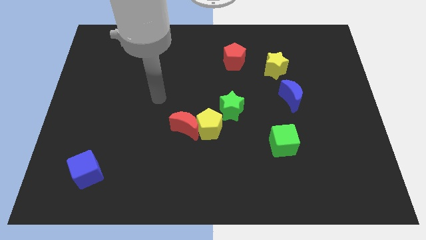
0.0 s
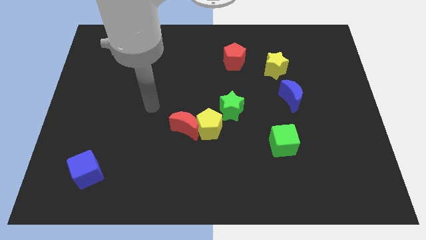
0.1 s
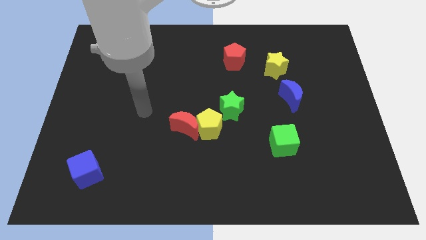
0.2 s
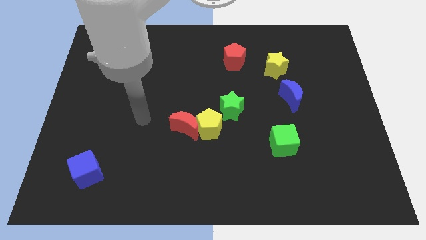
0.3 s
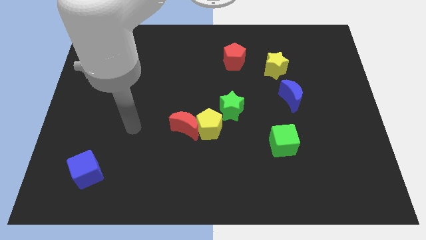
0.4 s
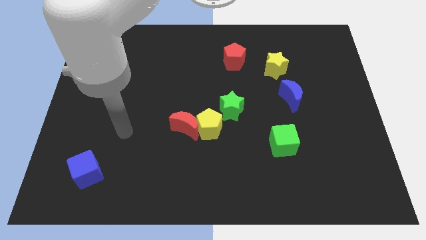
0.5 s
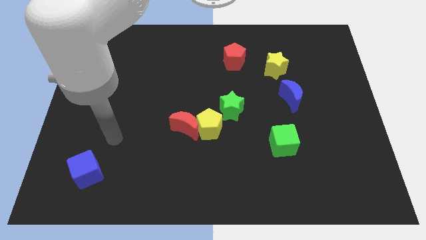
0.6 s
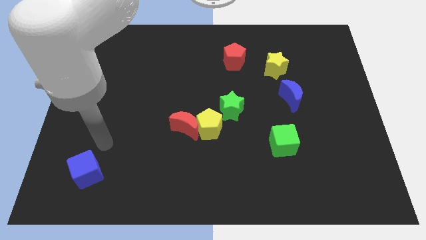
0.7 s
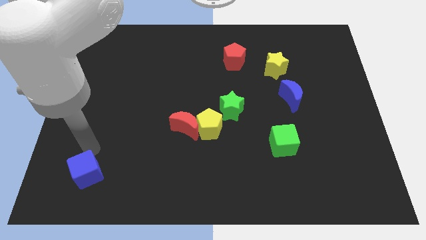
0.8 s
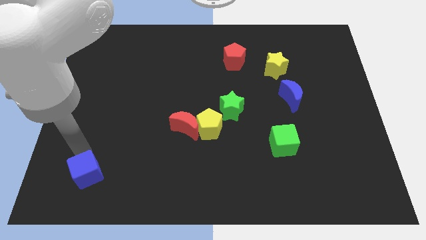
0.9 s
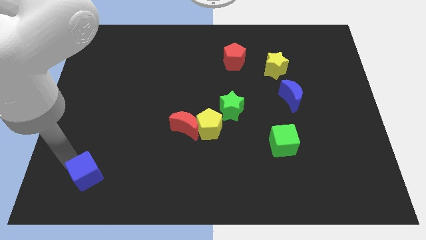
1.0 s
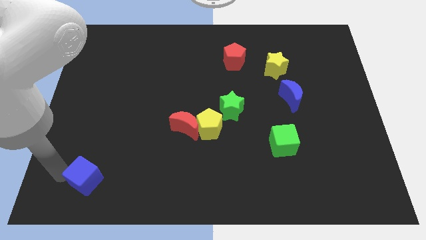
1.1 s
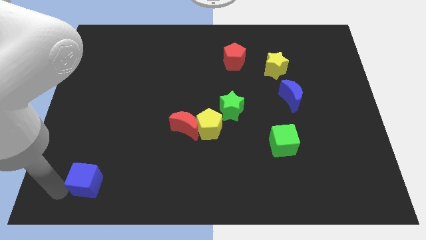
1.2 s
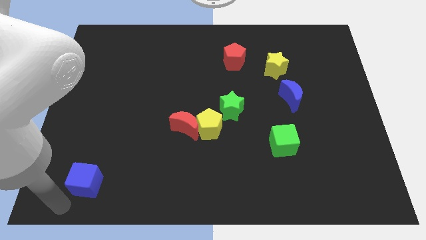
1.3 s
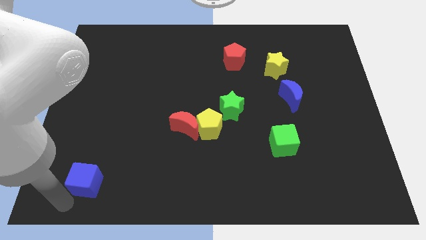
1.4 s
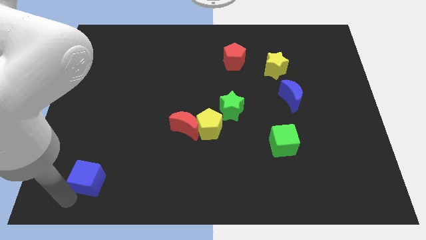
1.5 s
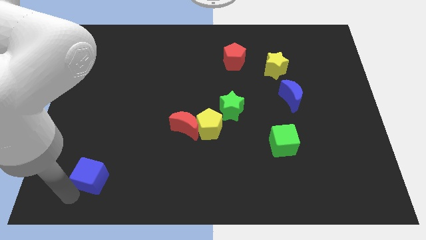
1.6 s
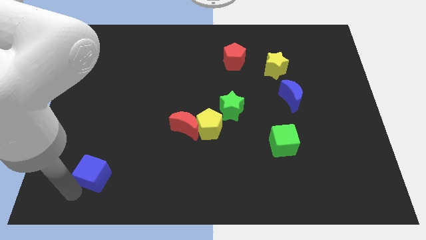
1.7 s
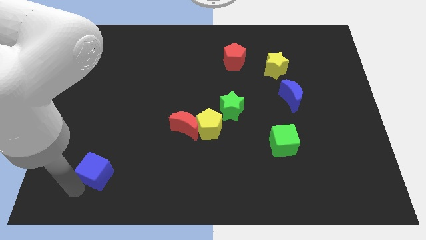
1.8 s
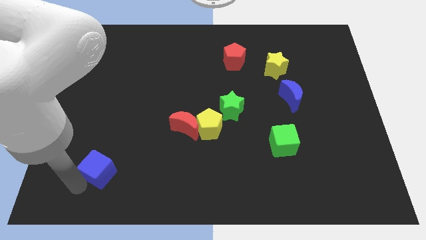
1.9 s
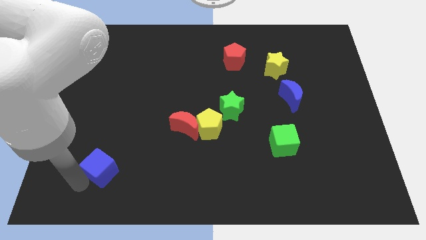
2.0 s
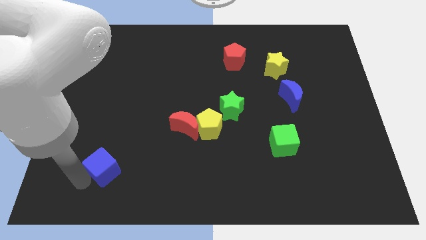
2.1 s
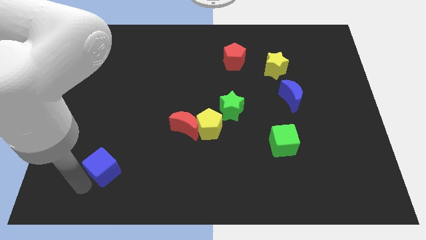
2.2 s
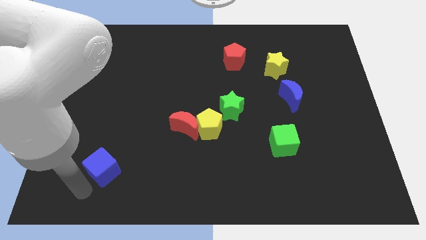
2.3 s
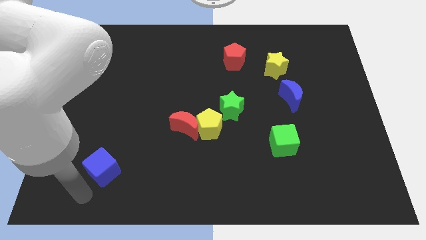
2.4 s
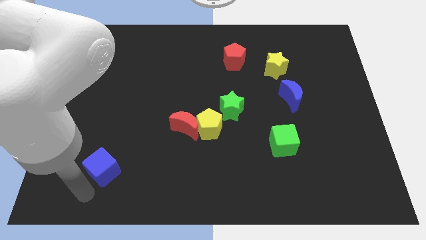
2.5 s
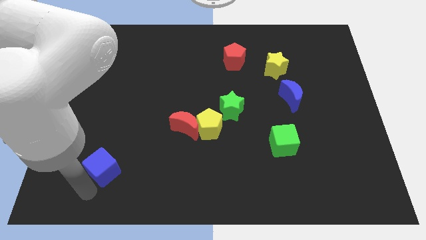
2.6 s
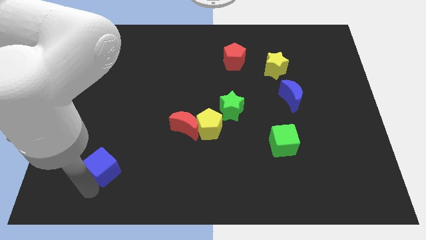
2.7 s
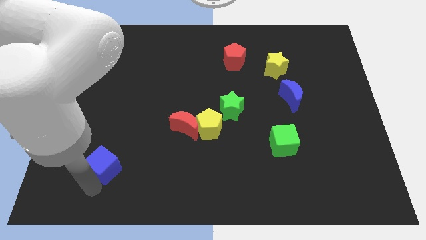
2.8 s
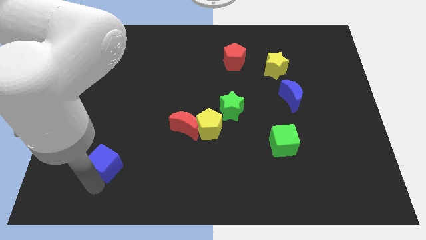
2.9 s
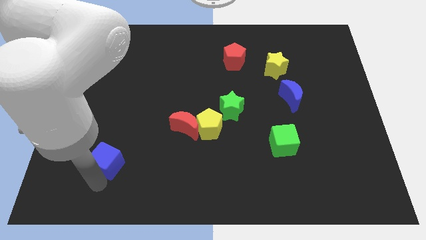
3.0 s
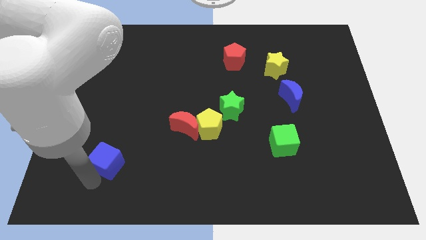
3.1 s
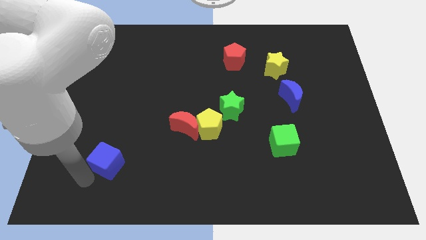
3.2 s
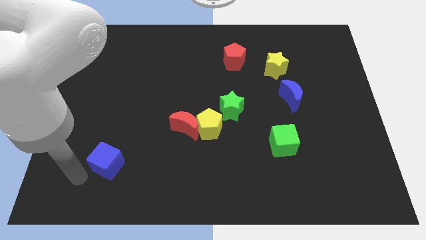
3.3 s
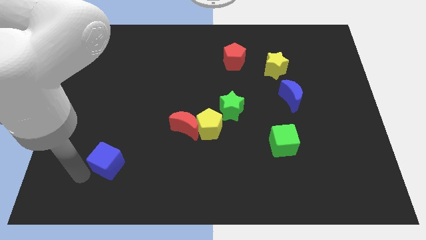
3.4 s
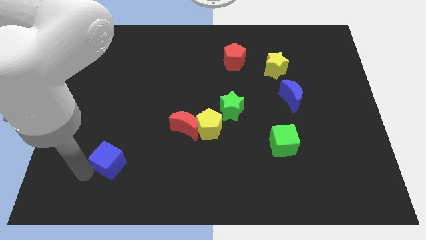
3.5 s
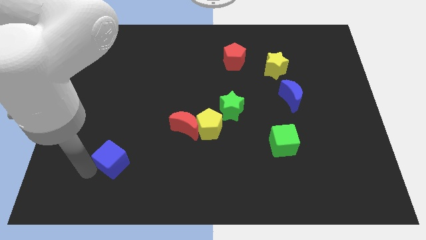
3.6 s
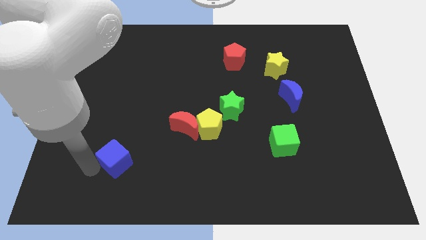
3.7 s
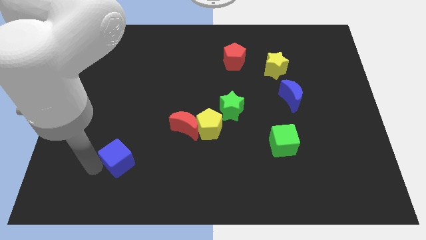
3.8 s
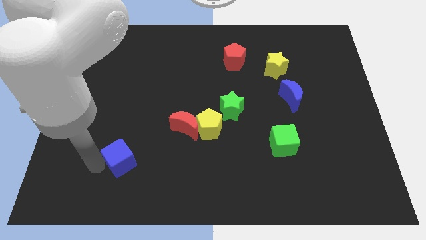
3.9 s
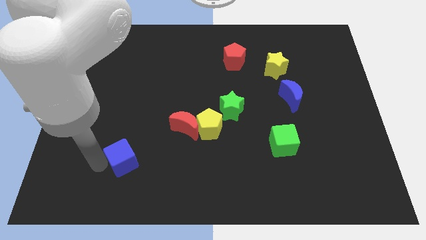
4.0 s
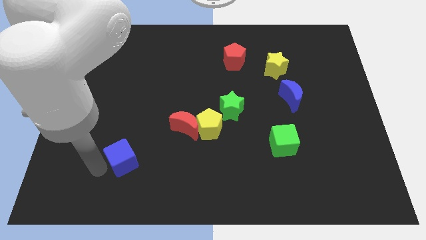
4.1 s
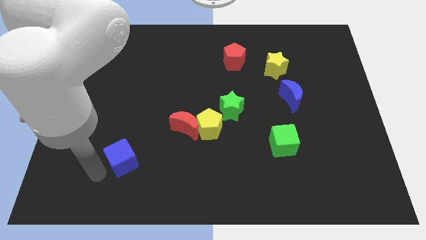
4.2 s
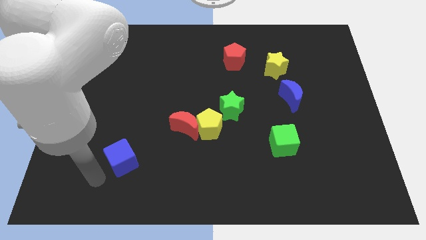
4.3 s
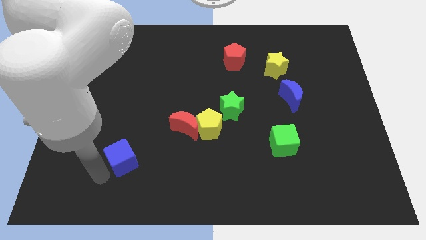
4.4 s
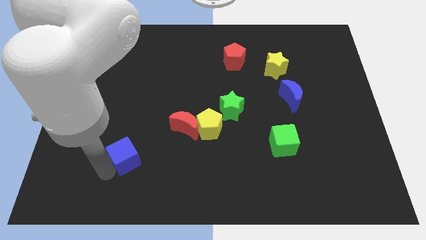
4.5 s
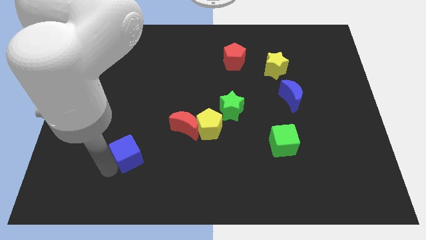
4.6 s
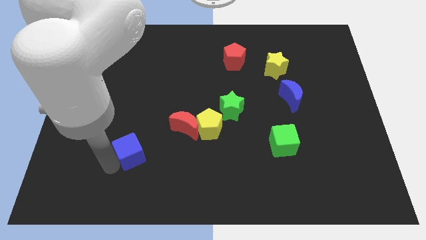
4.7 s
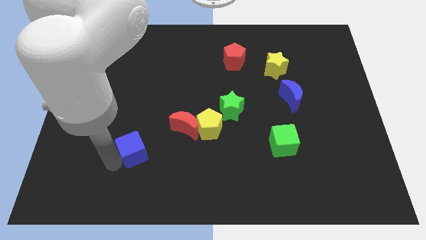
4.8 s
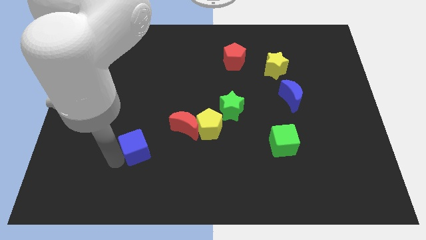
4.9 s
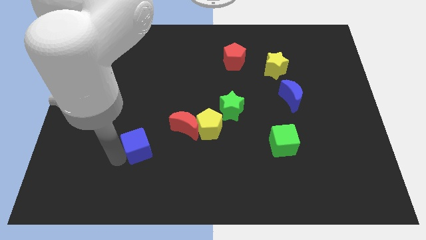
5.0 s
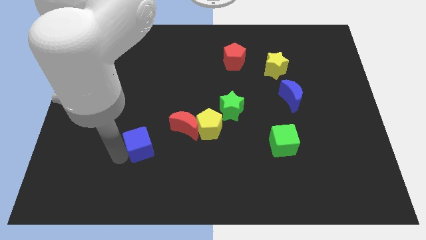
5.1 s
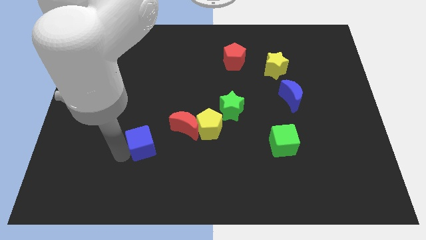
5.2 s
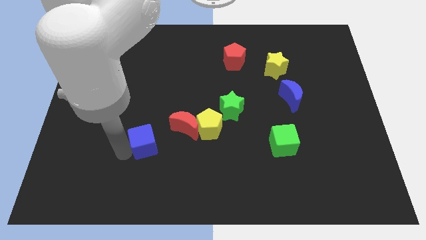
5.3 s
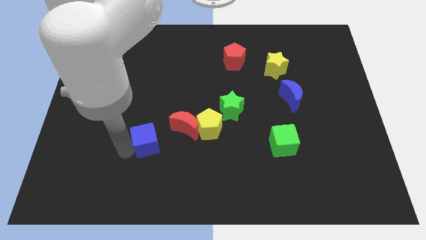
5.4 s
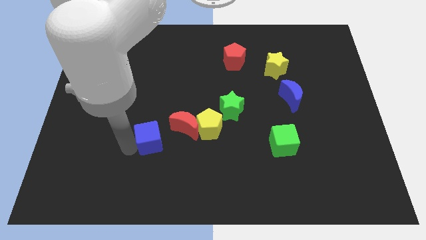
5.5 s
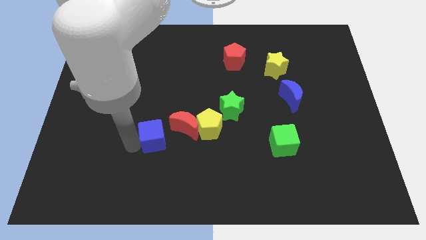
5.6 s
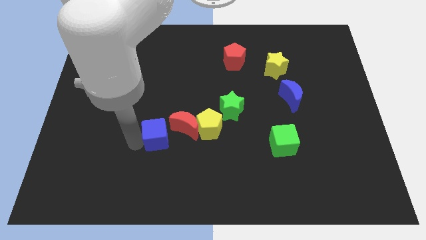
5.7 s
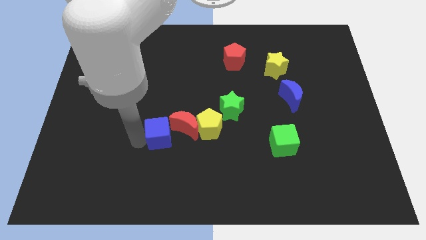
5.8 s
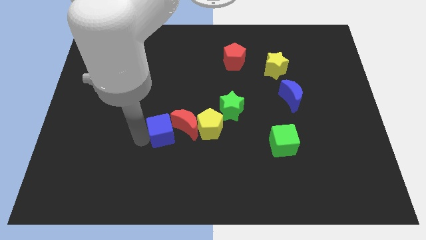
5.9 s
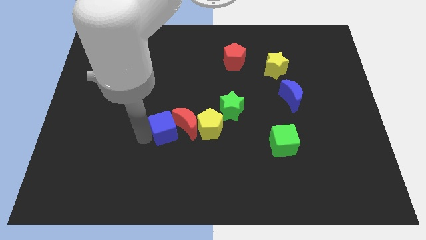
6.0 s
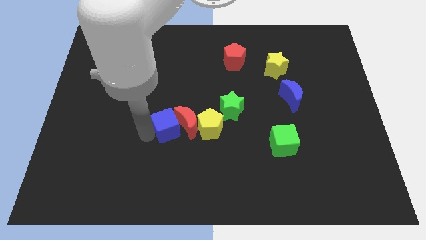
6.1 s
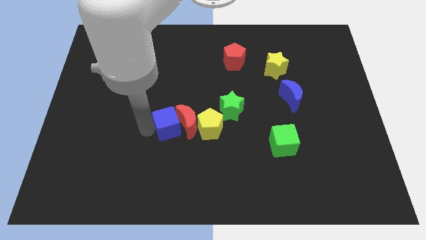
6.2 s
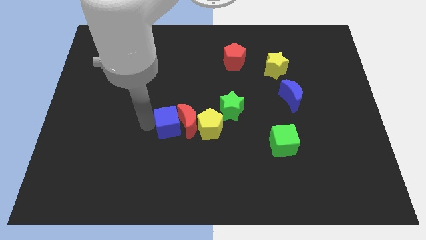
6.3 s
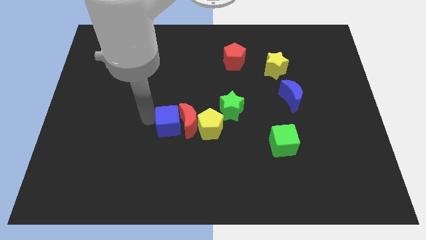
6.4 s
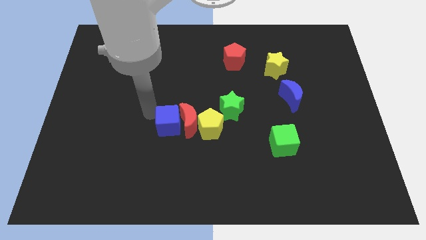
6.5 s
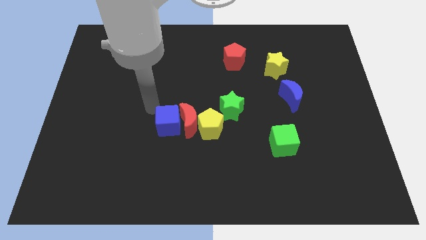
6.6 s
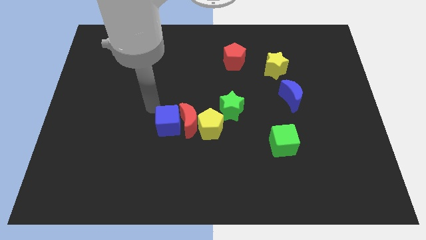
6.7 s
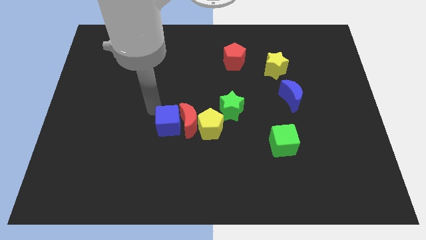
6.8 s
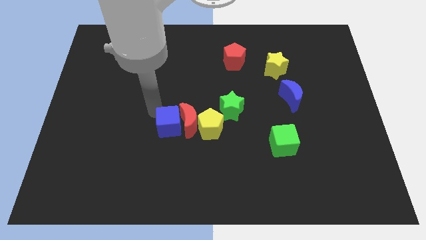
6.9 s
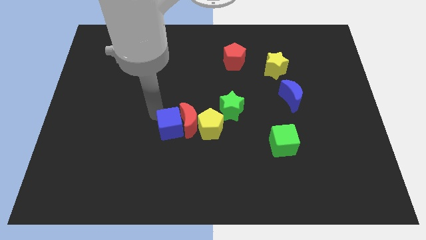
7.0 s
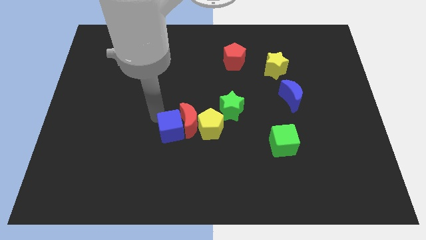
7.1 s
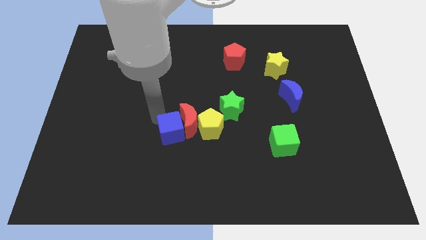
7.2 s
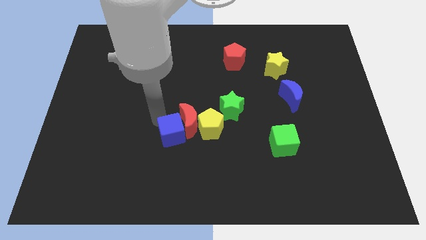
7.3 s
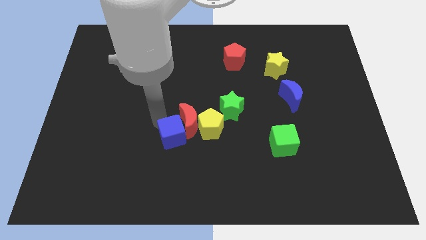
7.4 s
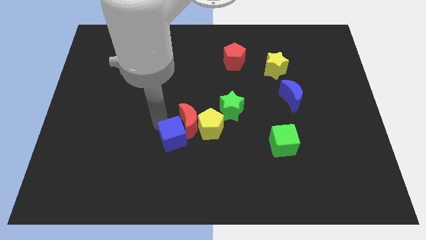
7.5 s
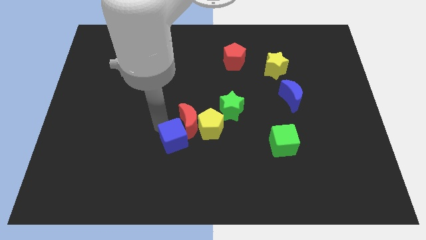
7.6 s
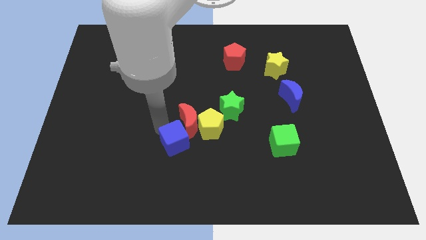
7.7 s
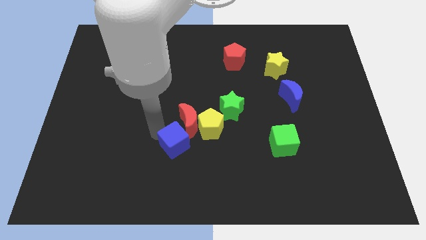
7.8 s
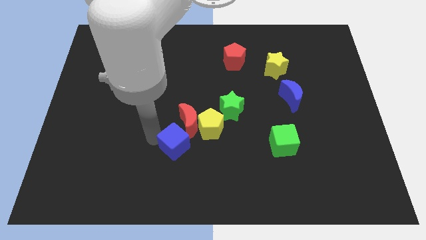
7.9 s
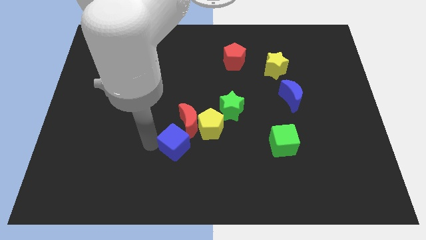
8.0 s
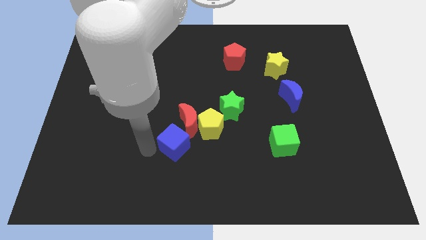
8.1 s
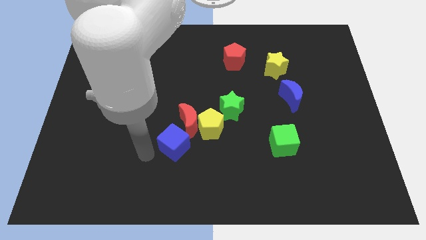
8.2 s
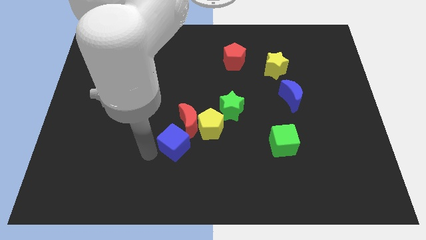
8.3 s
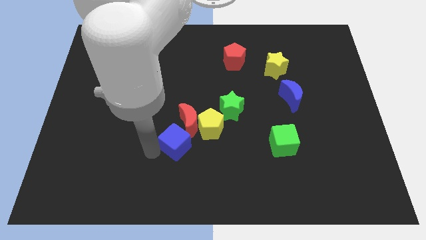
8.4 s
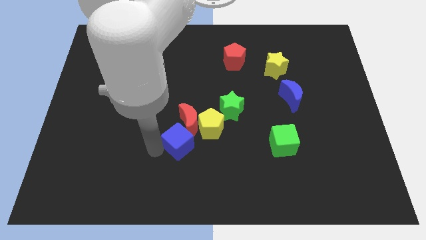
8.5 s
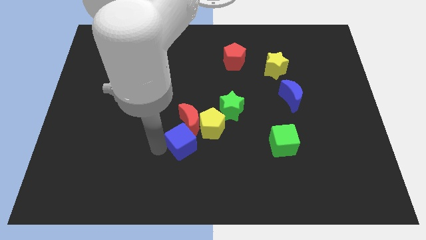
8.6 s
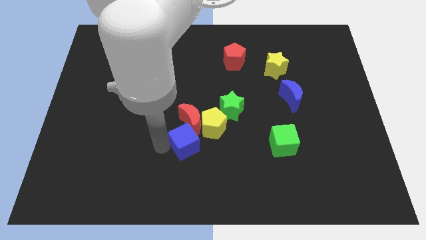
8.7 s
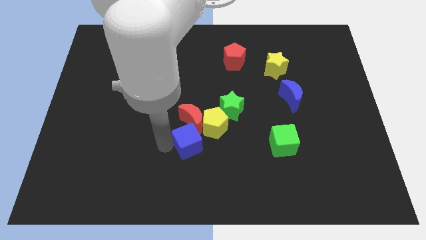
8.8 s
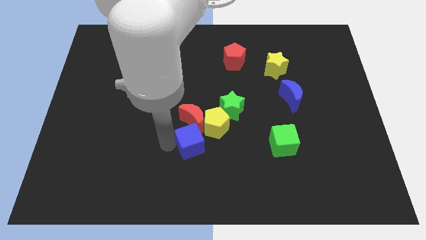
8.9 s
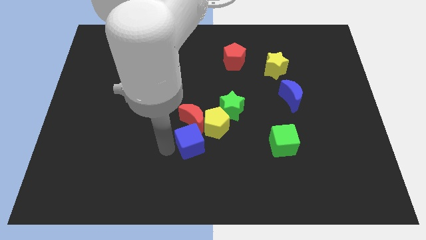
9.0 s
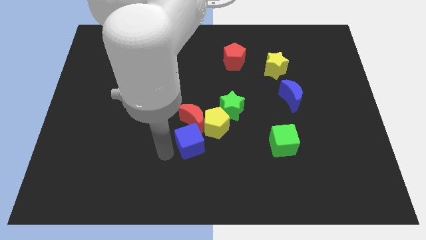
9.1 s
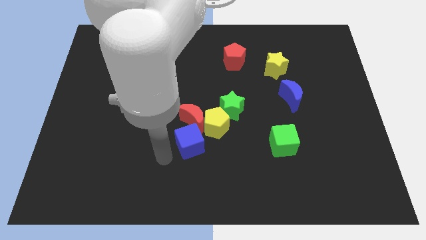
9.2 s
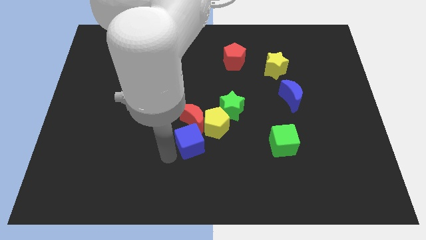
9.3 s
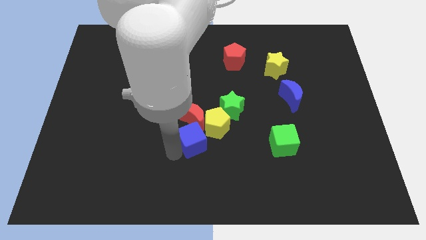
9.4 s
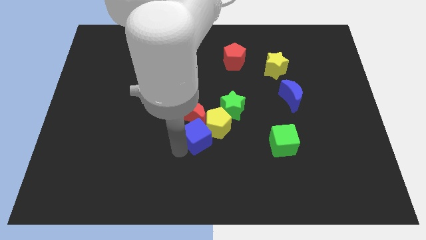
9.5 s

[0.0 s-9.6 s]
push the blue cube close to the yellow pentagon
